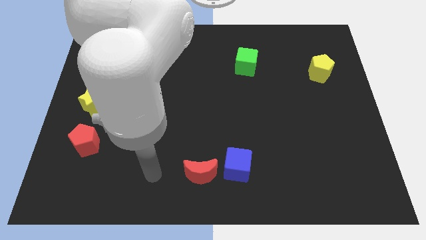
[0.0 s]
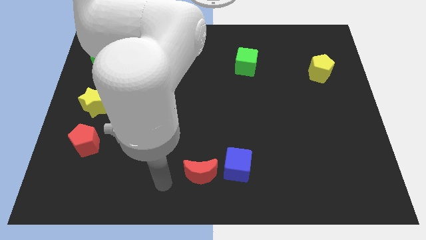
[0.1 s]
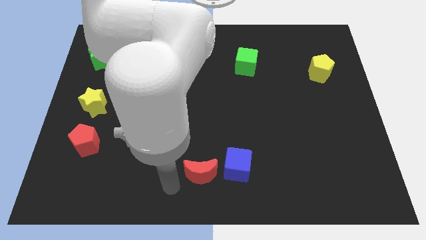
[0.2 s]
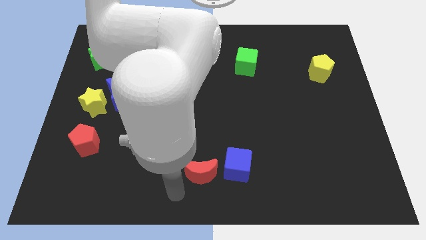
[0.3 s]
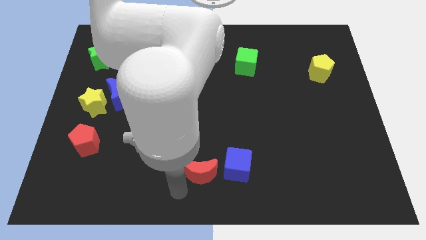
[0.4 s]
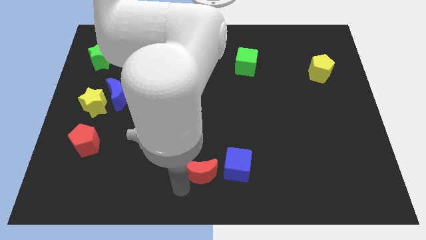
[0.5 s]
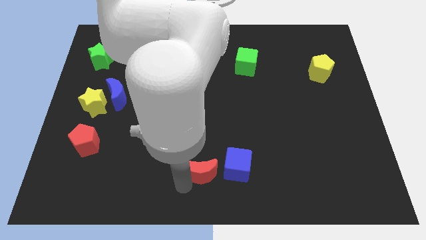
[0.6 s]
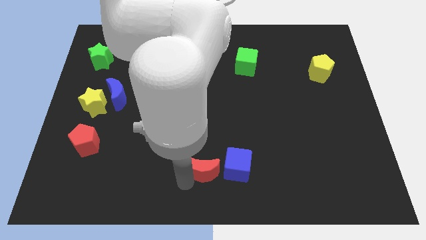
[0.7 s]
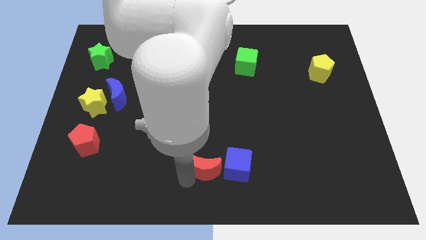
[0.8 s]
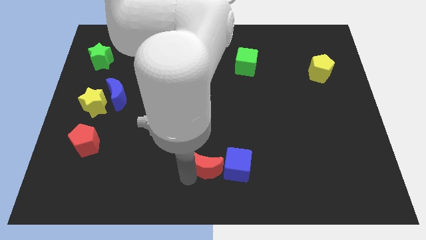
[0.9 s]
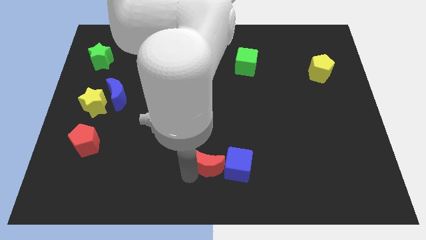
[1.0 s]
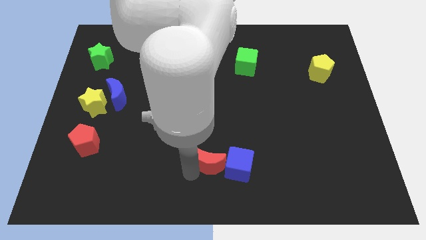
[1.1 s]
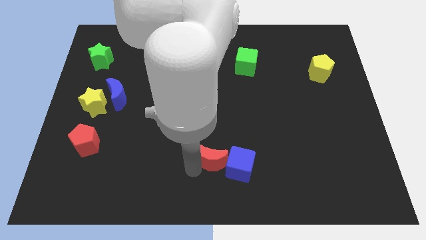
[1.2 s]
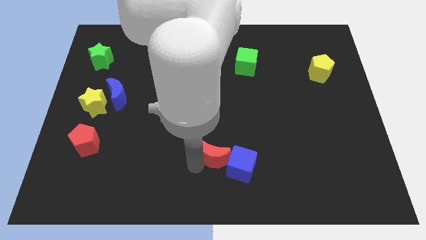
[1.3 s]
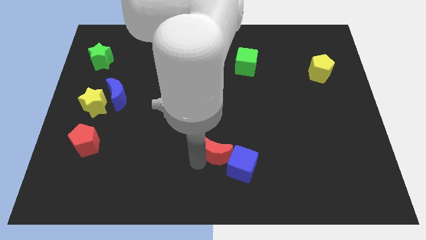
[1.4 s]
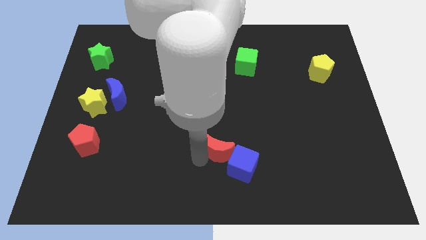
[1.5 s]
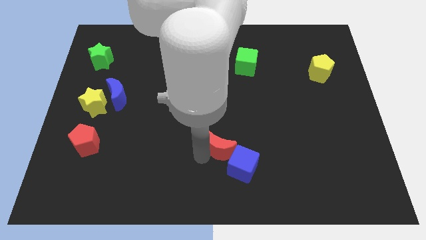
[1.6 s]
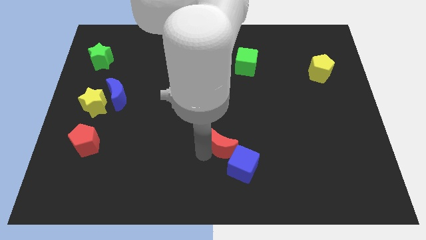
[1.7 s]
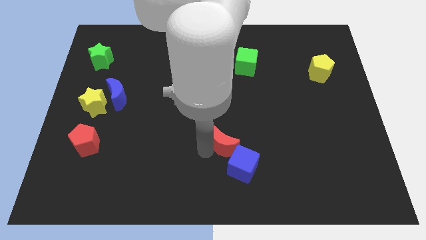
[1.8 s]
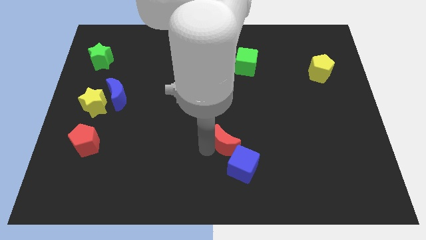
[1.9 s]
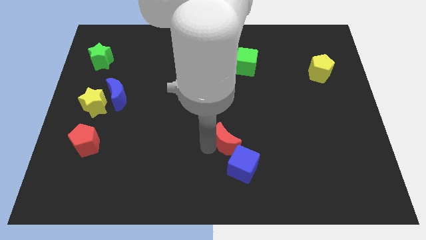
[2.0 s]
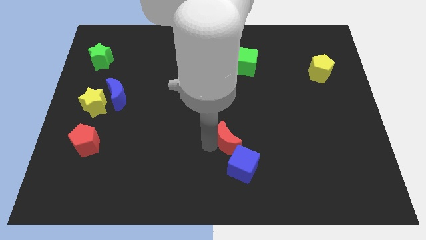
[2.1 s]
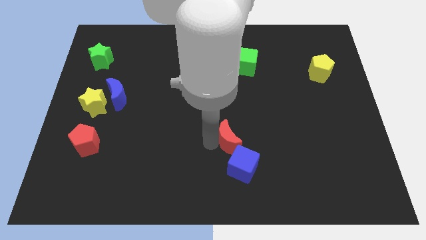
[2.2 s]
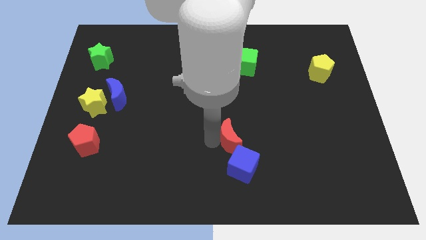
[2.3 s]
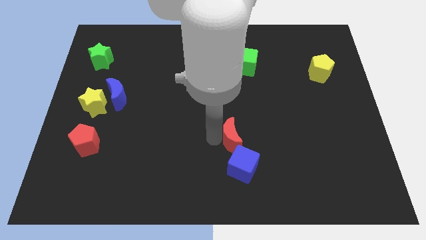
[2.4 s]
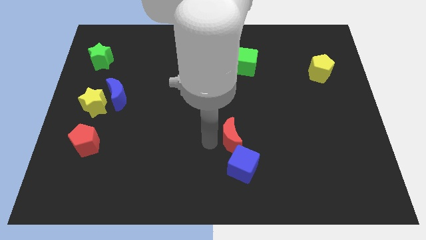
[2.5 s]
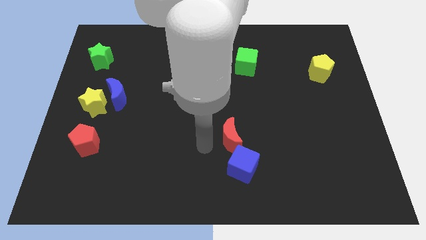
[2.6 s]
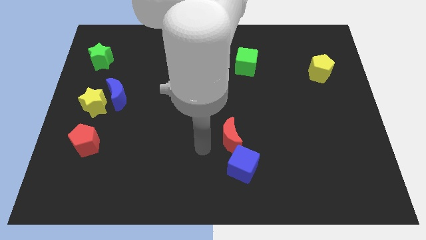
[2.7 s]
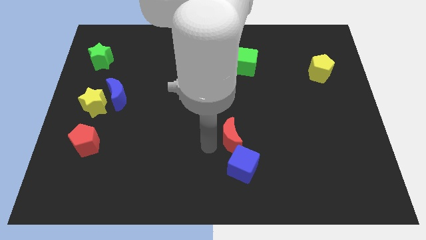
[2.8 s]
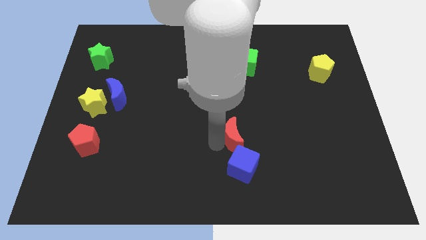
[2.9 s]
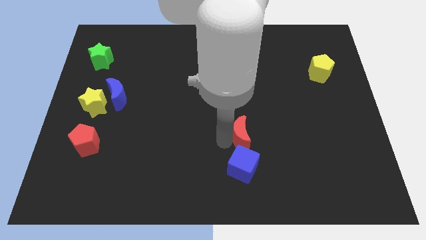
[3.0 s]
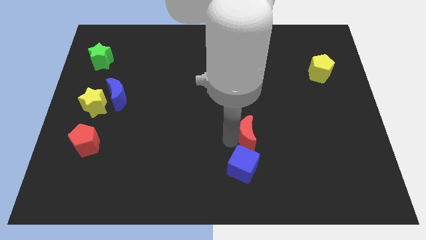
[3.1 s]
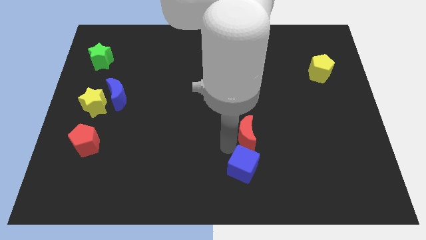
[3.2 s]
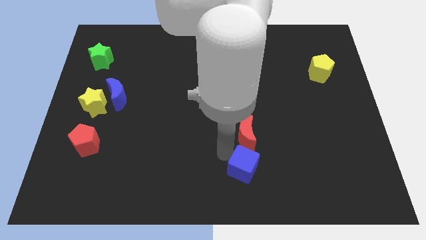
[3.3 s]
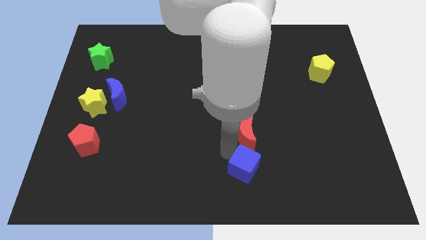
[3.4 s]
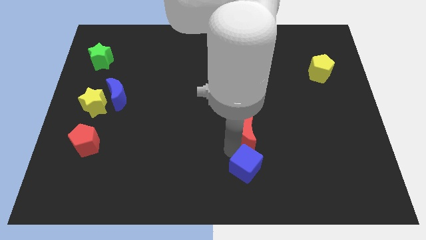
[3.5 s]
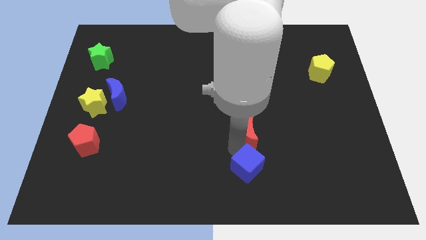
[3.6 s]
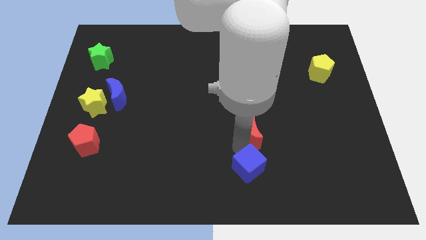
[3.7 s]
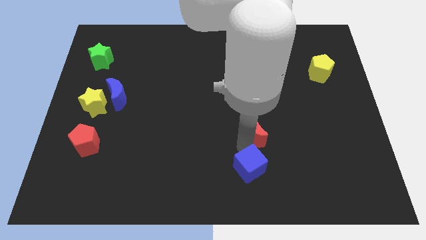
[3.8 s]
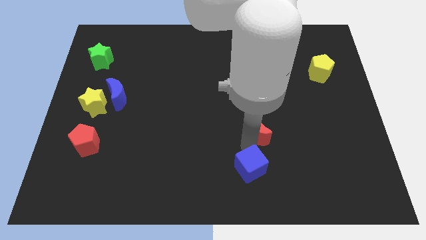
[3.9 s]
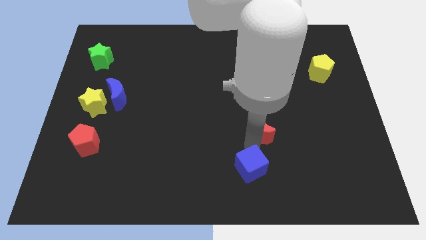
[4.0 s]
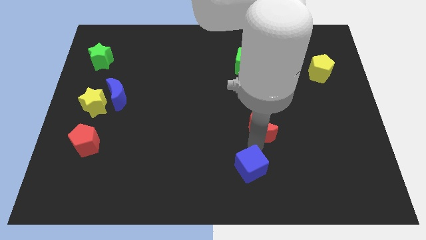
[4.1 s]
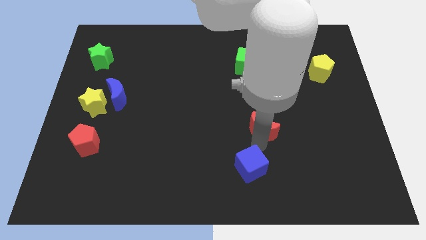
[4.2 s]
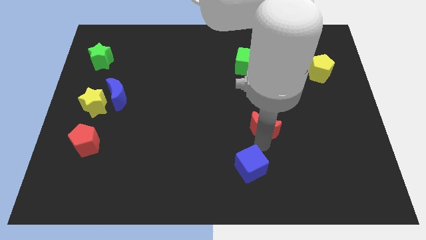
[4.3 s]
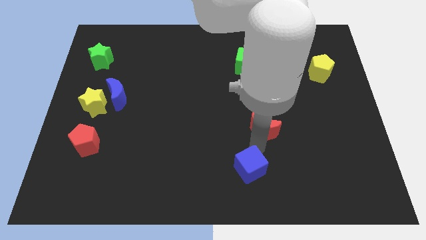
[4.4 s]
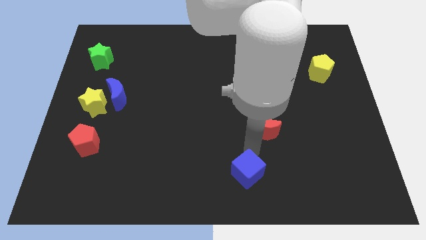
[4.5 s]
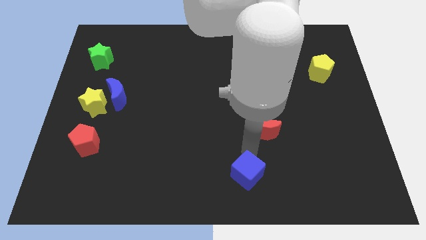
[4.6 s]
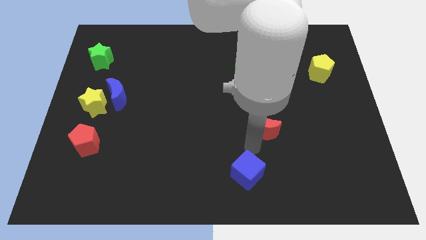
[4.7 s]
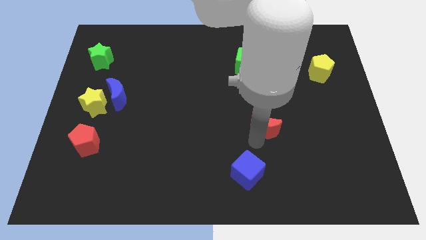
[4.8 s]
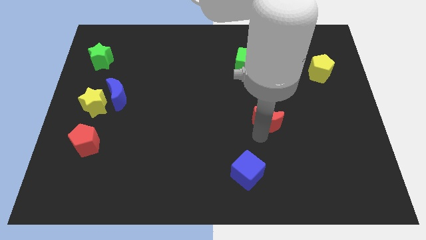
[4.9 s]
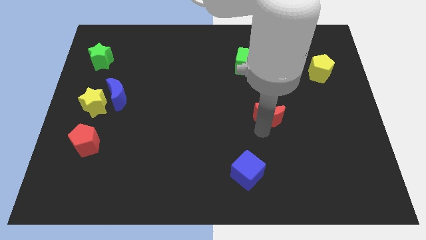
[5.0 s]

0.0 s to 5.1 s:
push the red moon upwards and then right

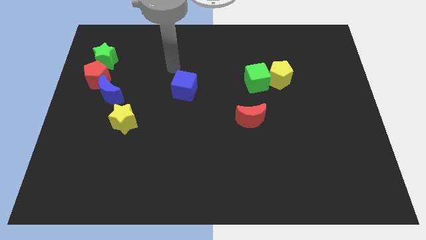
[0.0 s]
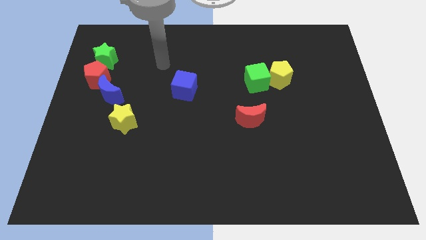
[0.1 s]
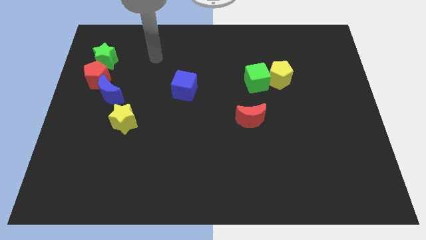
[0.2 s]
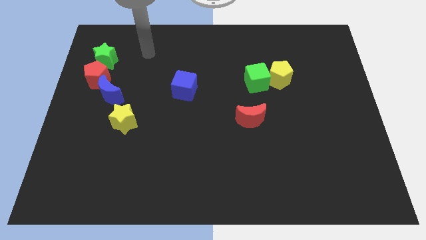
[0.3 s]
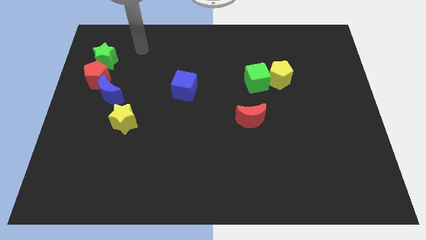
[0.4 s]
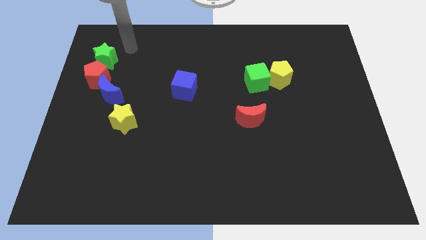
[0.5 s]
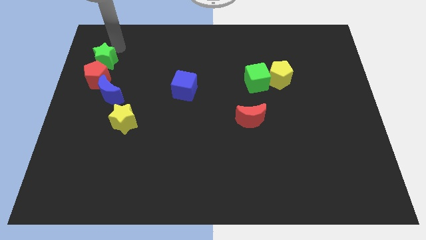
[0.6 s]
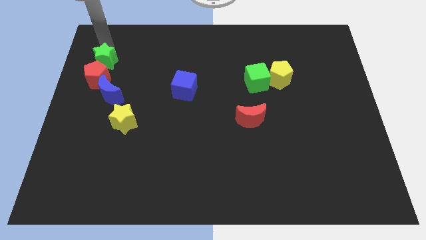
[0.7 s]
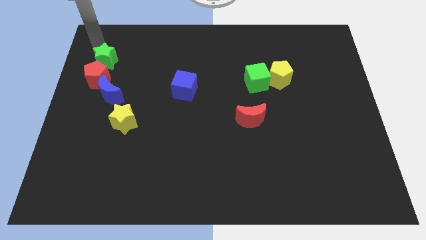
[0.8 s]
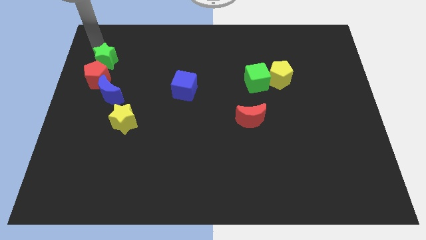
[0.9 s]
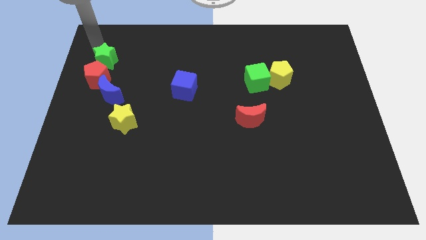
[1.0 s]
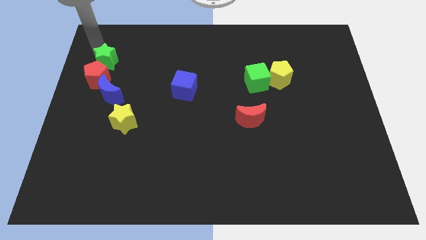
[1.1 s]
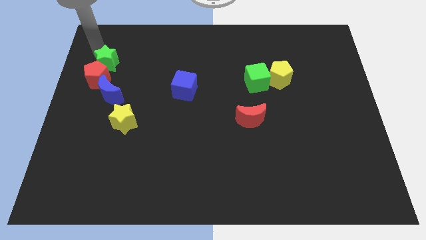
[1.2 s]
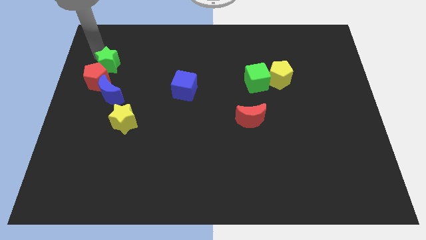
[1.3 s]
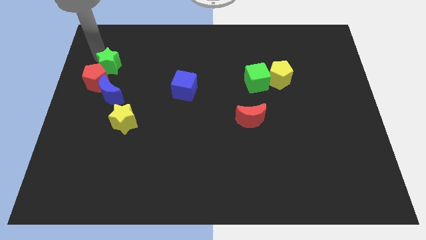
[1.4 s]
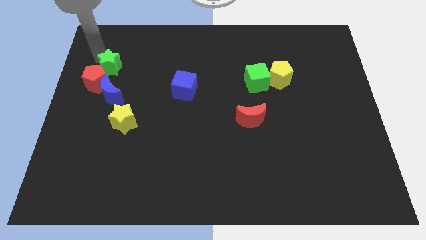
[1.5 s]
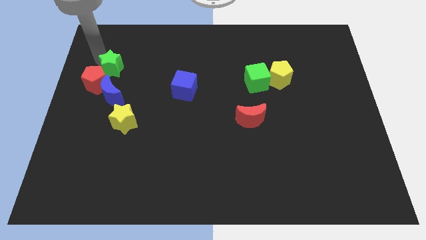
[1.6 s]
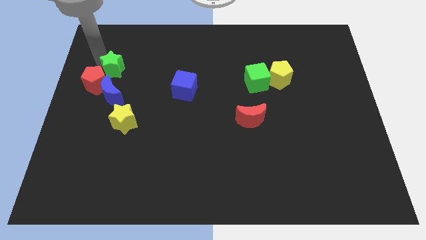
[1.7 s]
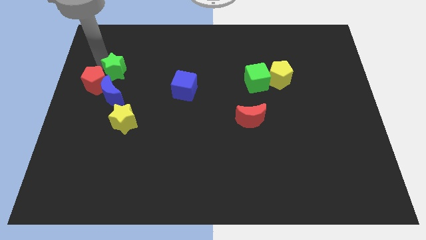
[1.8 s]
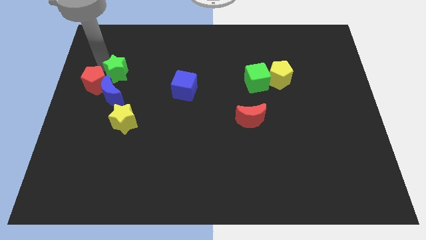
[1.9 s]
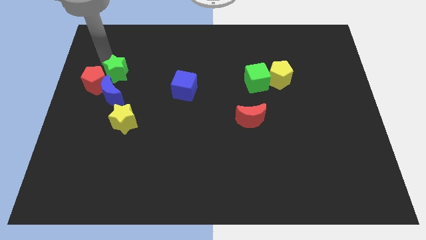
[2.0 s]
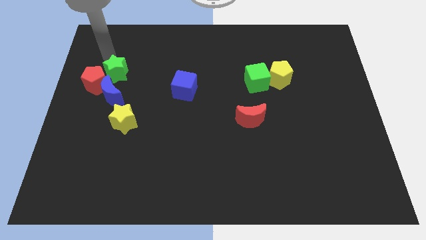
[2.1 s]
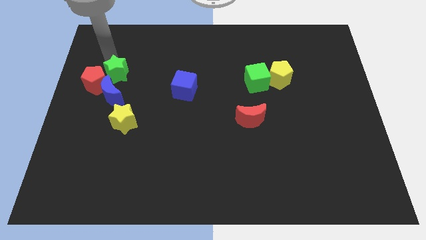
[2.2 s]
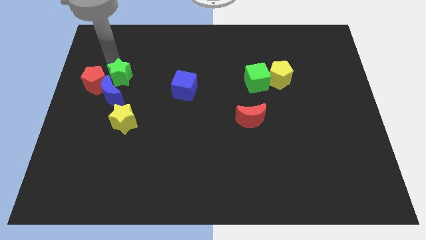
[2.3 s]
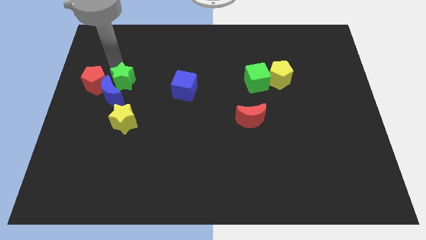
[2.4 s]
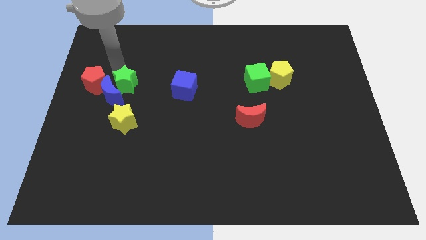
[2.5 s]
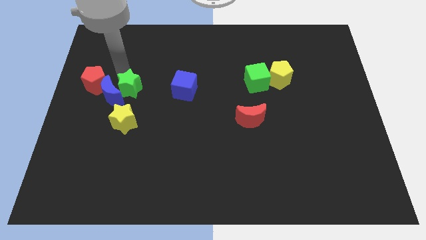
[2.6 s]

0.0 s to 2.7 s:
move the green star a little bit downwards

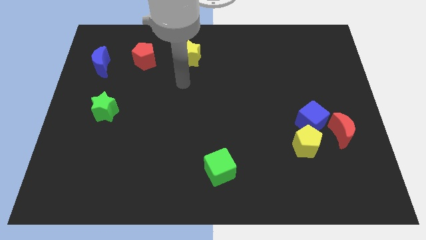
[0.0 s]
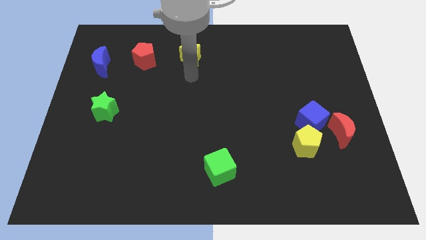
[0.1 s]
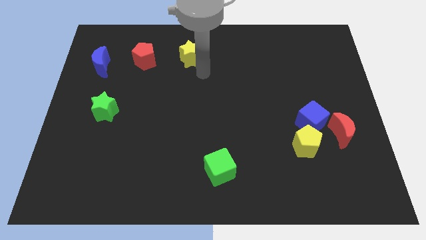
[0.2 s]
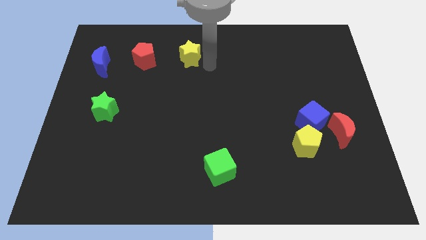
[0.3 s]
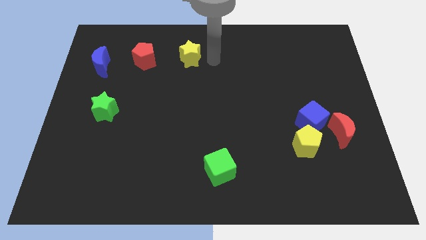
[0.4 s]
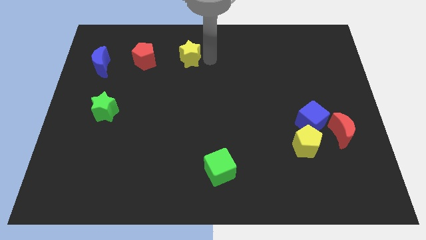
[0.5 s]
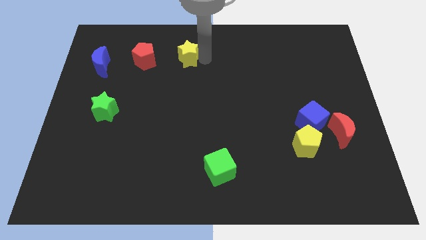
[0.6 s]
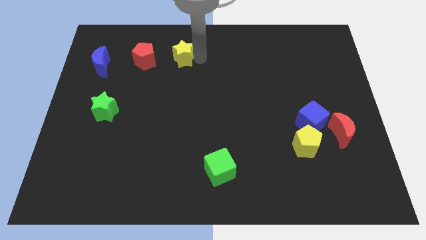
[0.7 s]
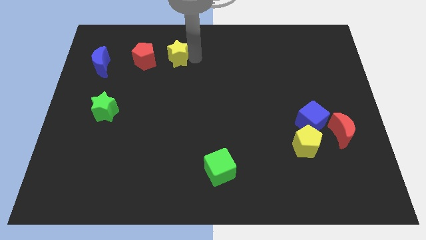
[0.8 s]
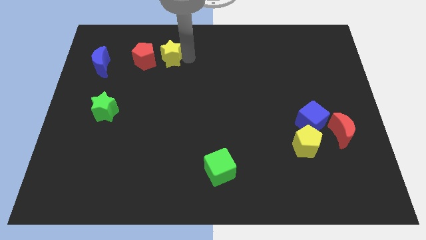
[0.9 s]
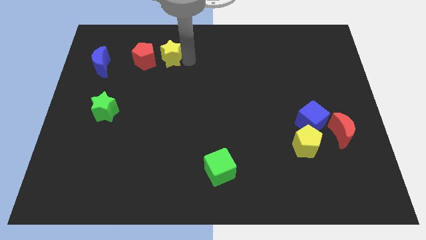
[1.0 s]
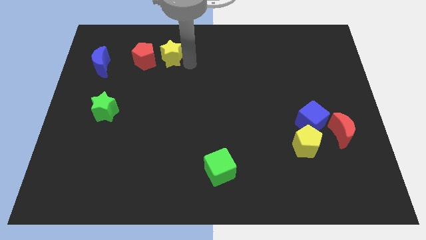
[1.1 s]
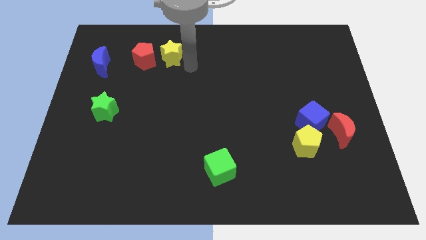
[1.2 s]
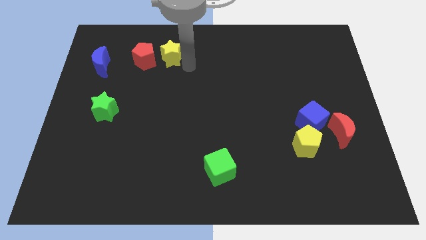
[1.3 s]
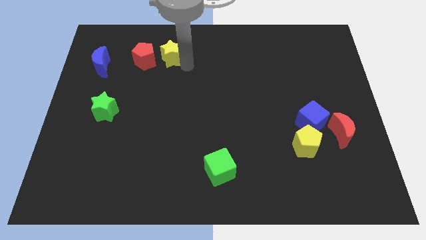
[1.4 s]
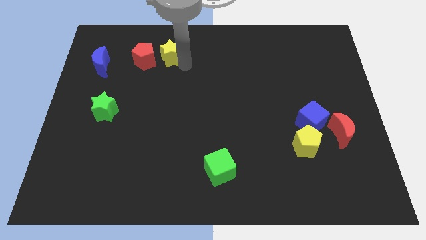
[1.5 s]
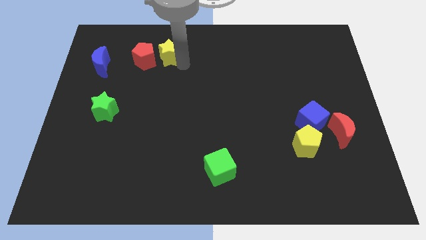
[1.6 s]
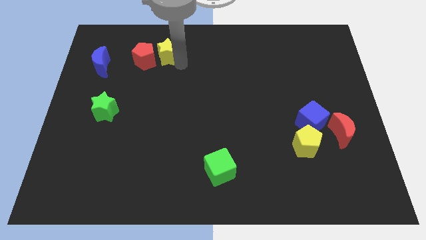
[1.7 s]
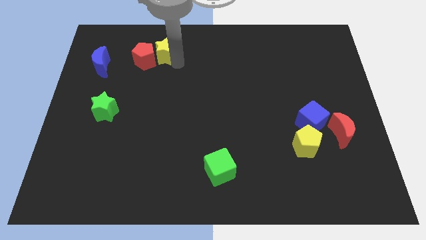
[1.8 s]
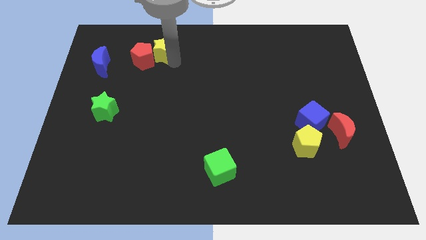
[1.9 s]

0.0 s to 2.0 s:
push the yellow star slightly left
